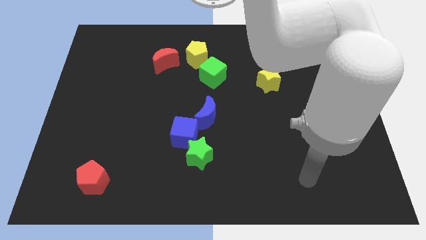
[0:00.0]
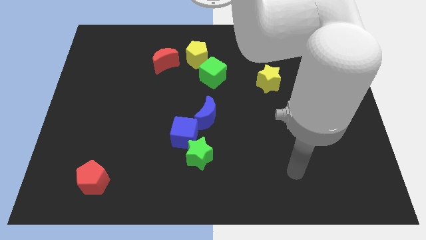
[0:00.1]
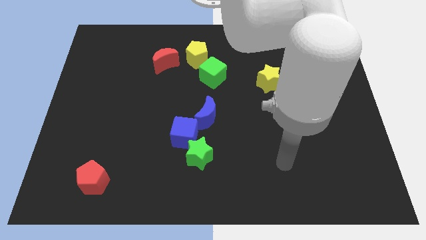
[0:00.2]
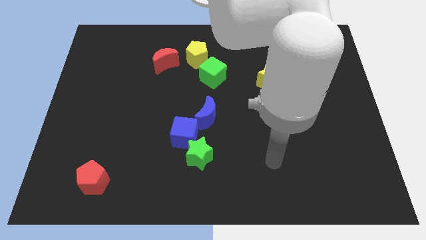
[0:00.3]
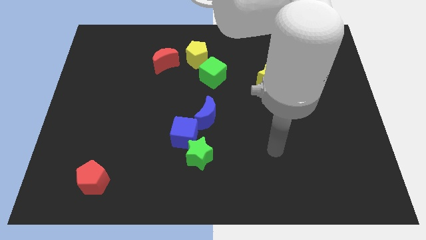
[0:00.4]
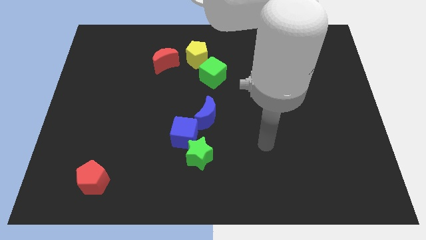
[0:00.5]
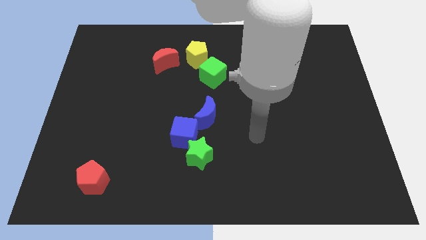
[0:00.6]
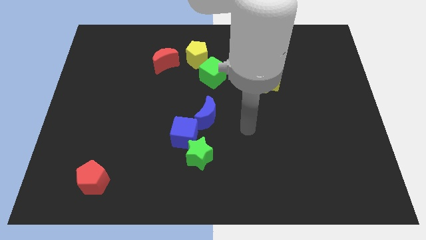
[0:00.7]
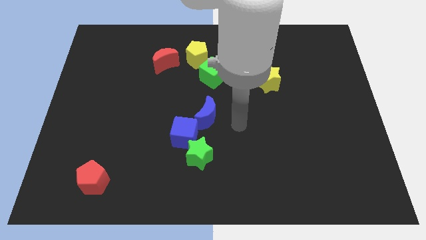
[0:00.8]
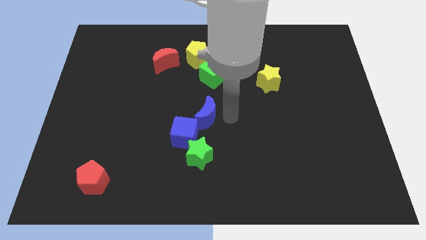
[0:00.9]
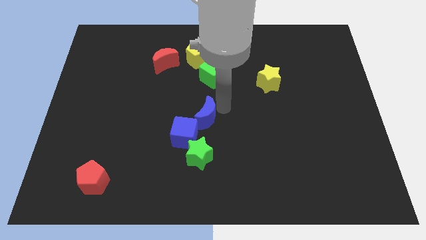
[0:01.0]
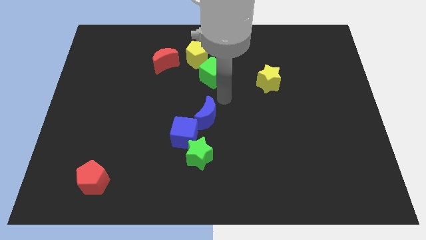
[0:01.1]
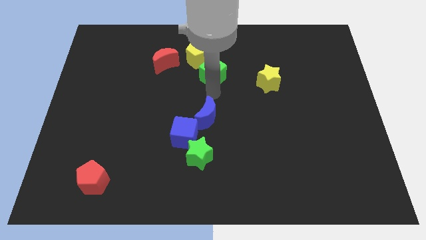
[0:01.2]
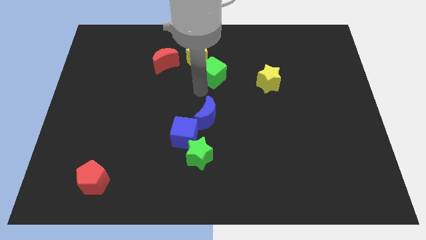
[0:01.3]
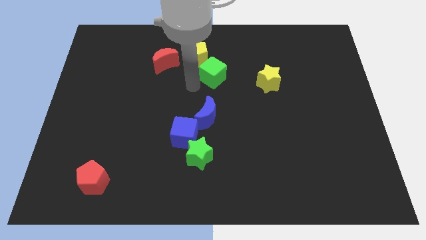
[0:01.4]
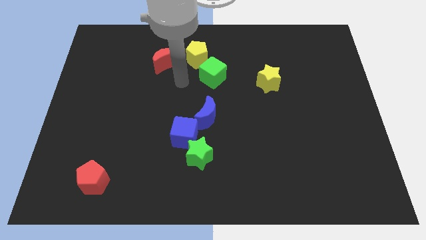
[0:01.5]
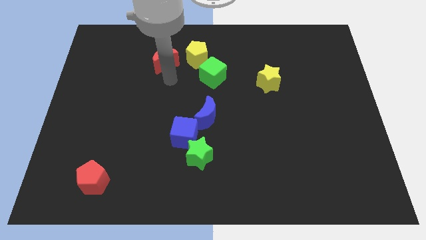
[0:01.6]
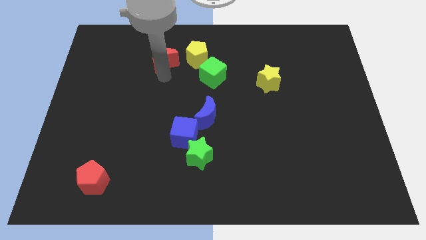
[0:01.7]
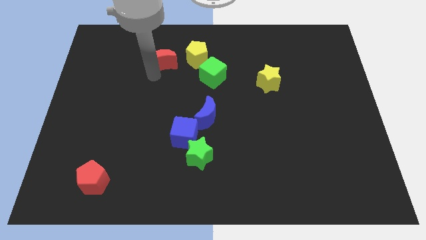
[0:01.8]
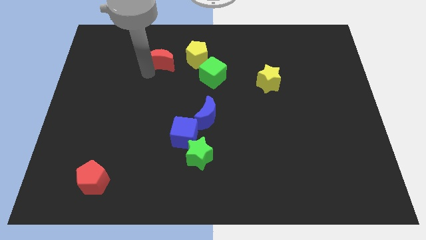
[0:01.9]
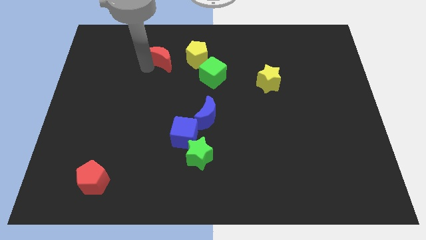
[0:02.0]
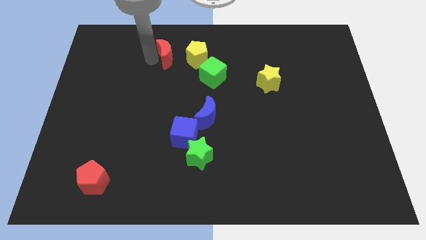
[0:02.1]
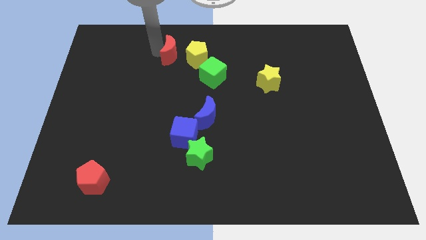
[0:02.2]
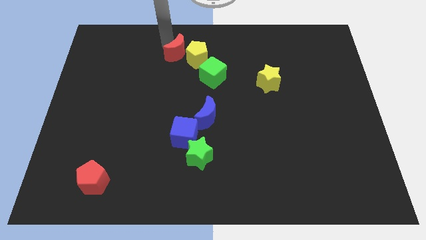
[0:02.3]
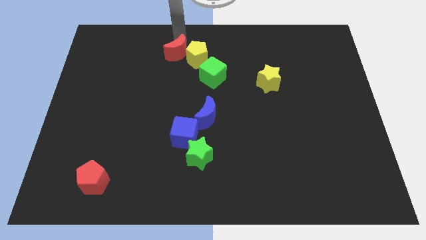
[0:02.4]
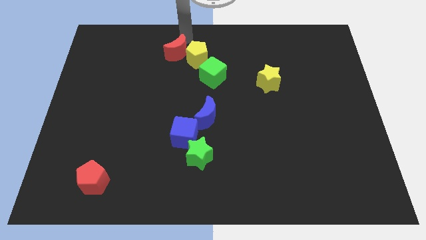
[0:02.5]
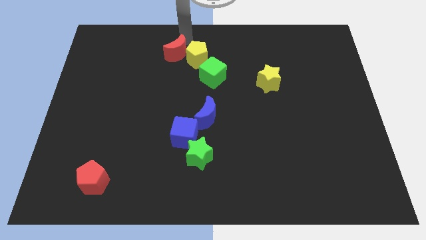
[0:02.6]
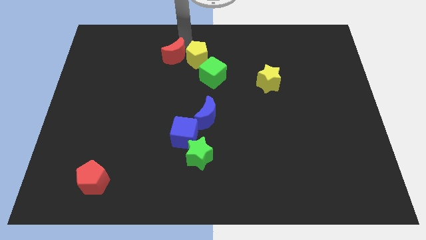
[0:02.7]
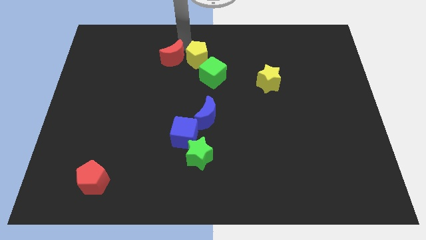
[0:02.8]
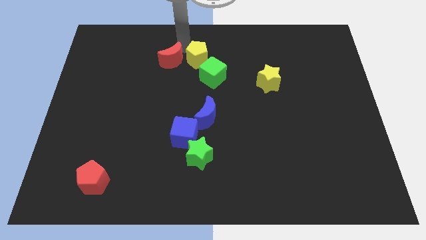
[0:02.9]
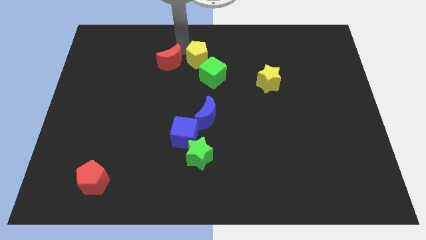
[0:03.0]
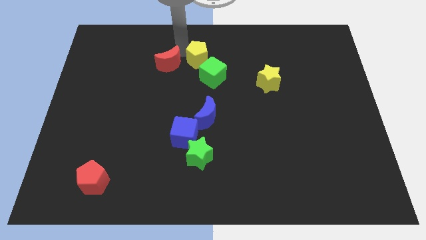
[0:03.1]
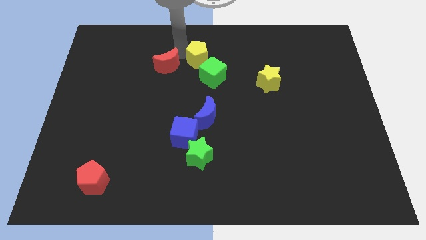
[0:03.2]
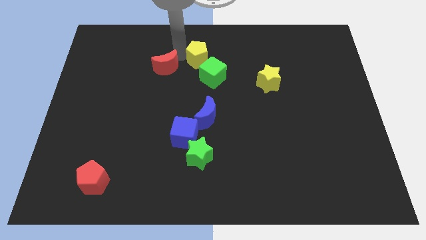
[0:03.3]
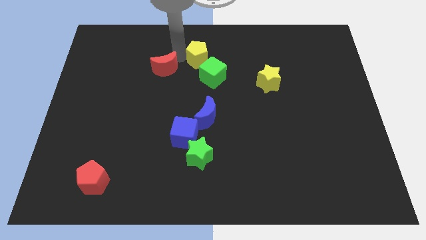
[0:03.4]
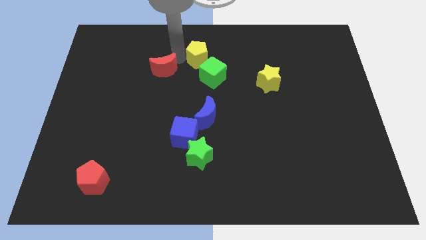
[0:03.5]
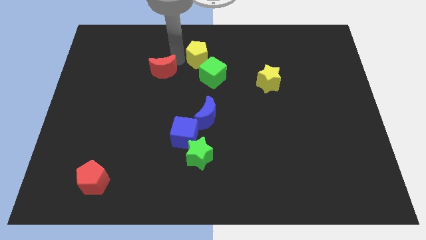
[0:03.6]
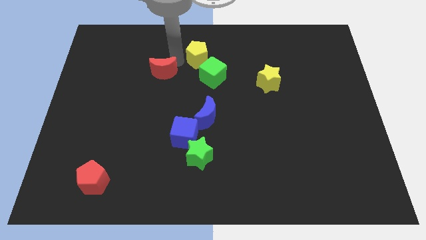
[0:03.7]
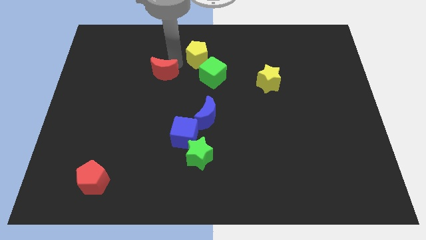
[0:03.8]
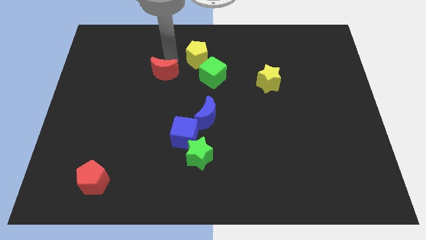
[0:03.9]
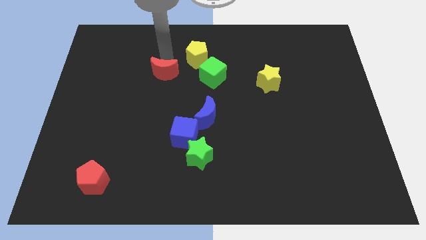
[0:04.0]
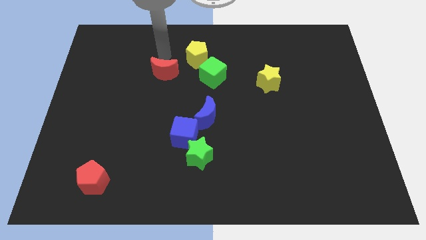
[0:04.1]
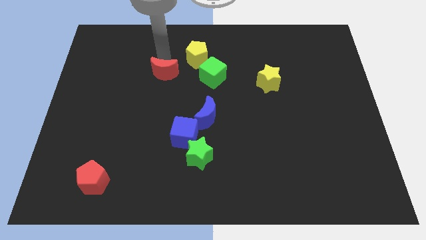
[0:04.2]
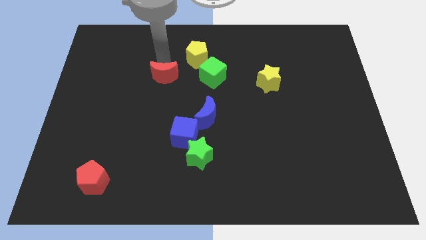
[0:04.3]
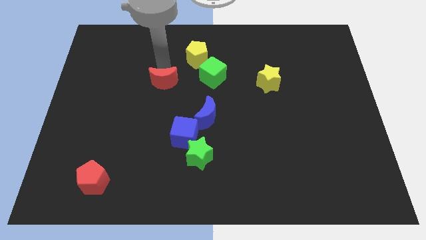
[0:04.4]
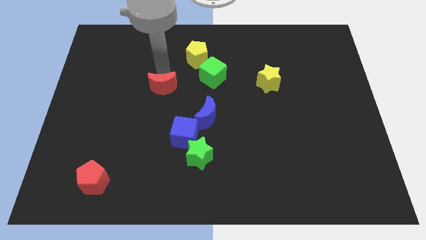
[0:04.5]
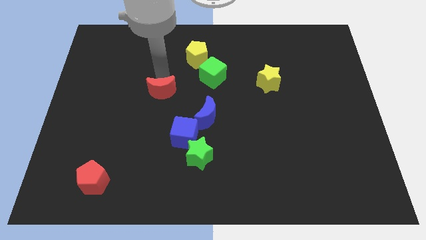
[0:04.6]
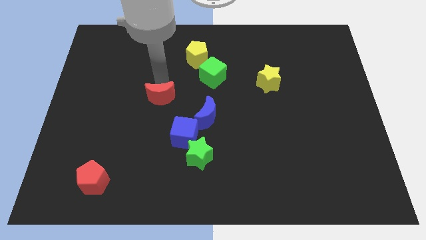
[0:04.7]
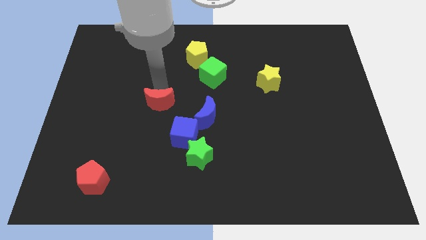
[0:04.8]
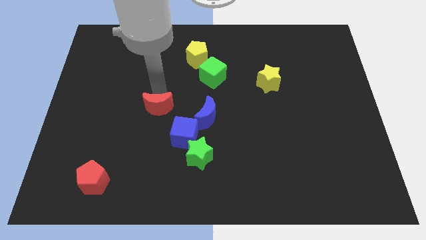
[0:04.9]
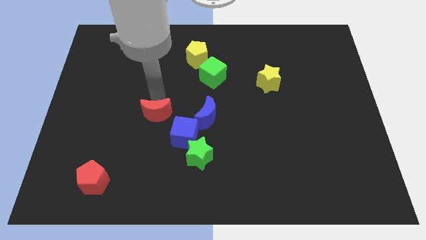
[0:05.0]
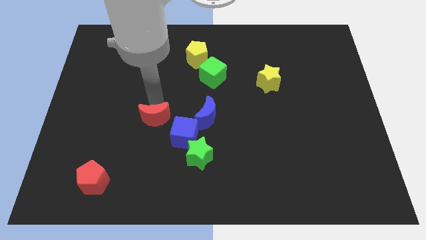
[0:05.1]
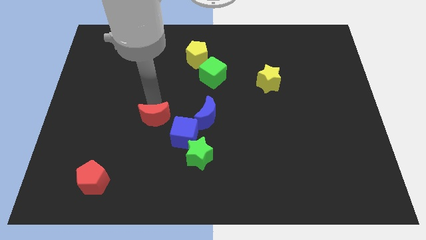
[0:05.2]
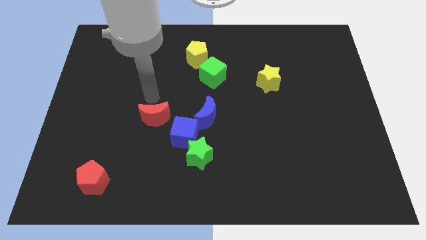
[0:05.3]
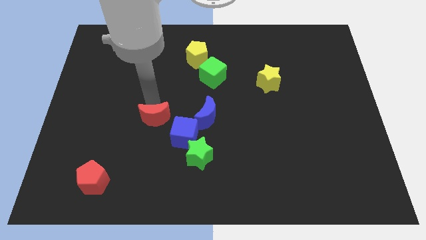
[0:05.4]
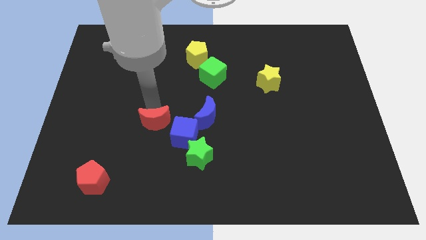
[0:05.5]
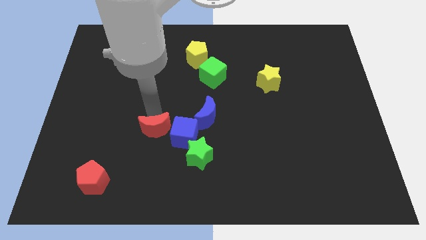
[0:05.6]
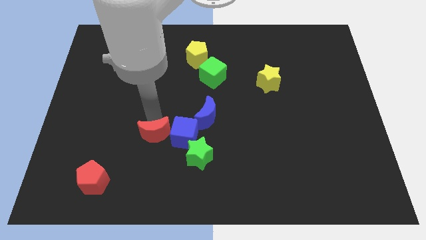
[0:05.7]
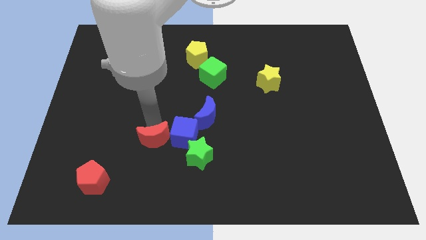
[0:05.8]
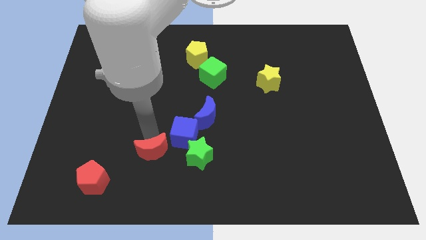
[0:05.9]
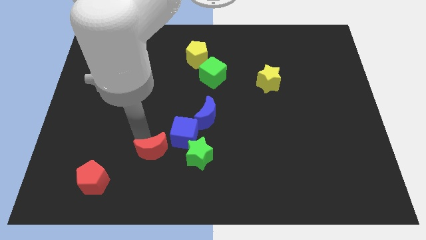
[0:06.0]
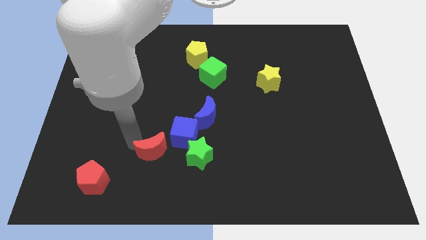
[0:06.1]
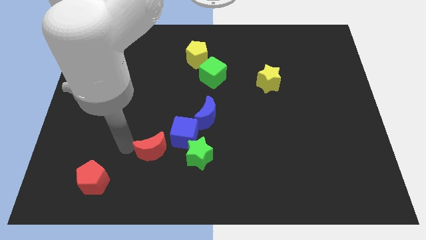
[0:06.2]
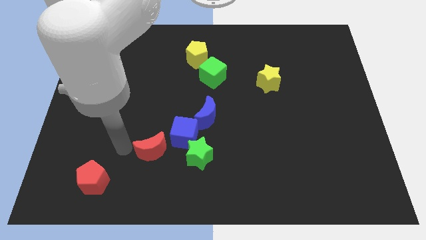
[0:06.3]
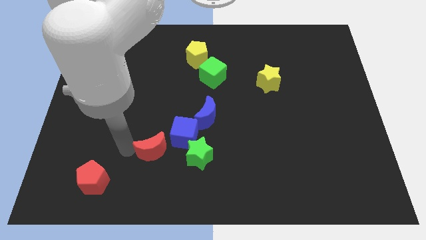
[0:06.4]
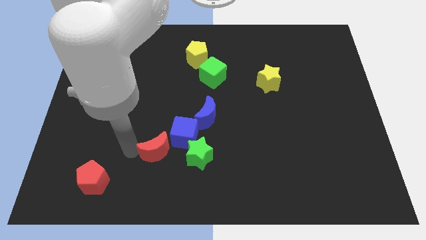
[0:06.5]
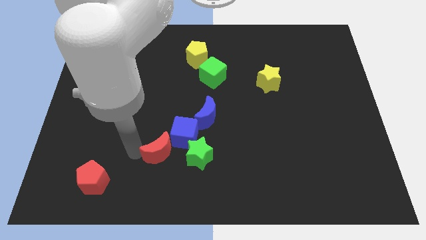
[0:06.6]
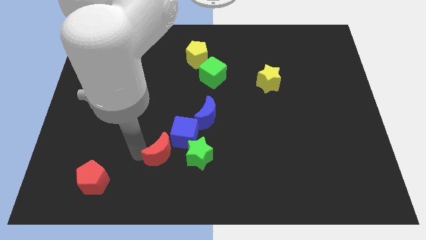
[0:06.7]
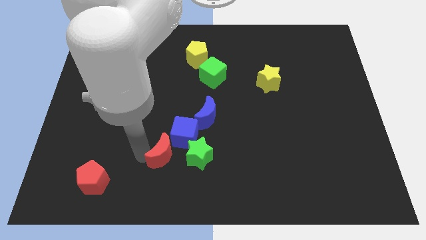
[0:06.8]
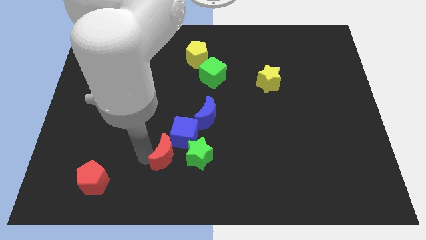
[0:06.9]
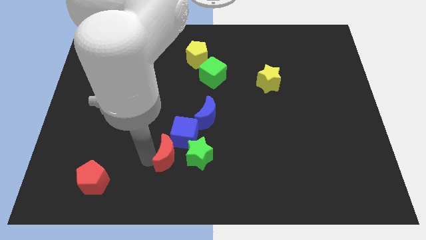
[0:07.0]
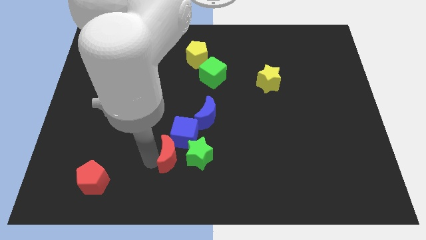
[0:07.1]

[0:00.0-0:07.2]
move the red moon towards the green star
